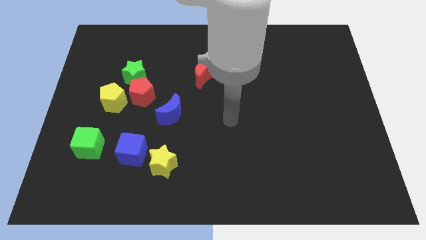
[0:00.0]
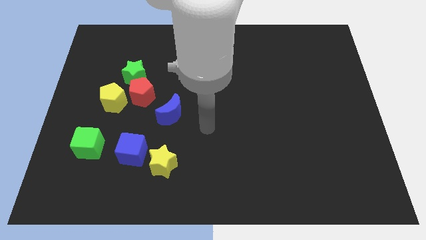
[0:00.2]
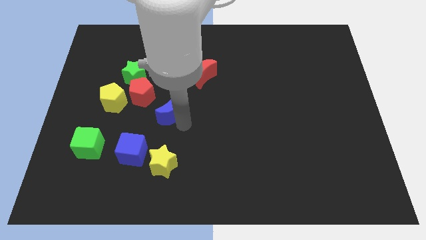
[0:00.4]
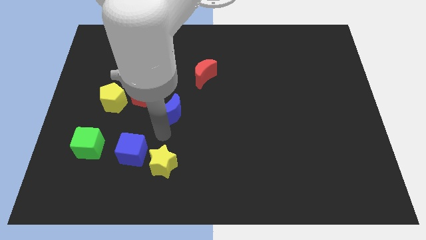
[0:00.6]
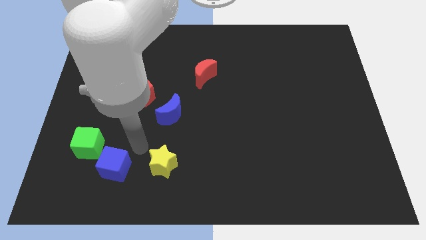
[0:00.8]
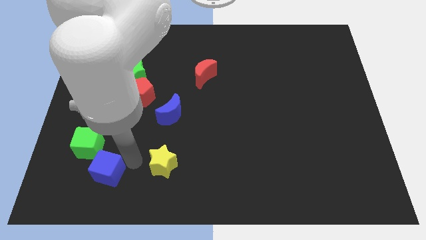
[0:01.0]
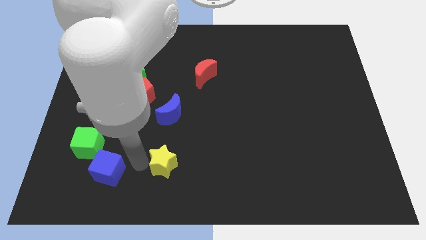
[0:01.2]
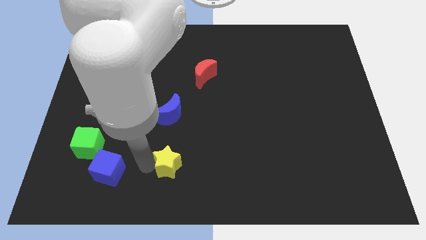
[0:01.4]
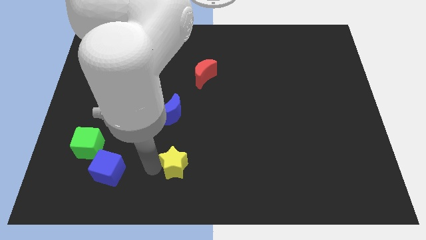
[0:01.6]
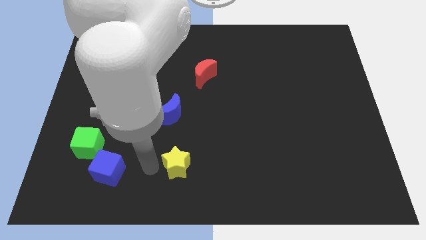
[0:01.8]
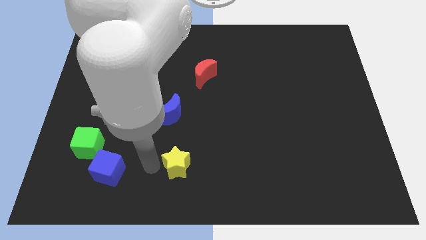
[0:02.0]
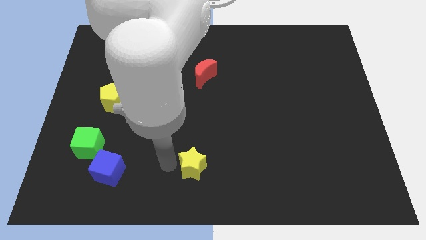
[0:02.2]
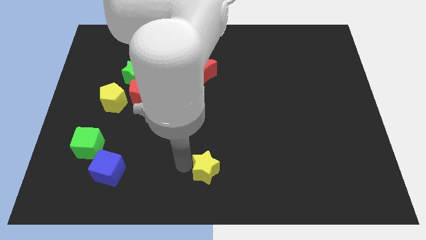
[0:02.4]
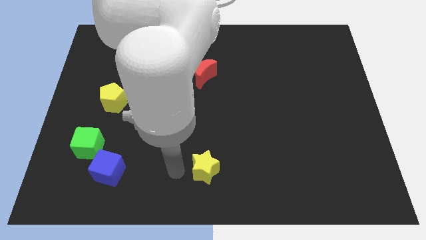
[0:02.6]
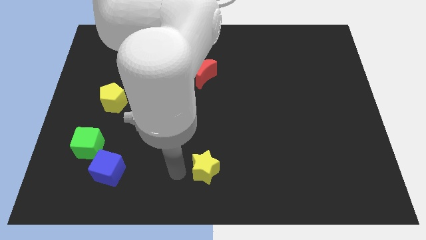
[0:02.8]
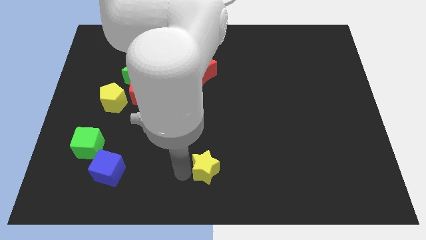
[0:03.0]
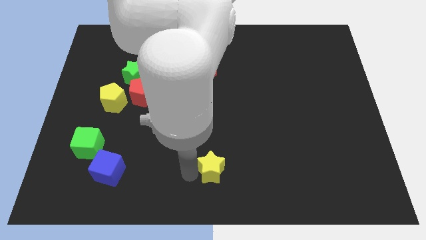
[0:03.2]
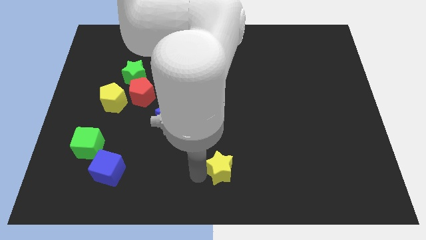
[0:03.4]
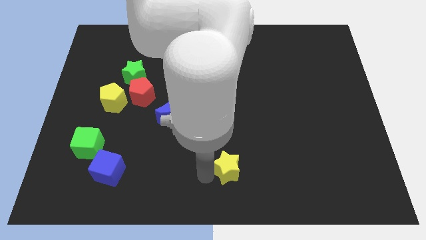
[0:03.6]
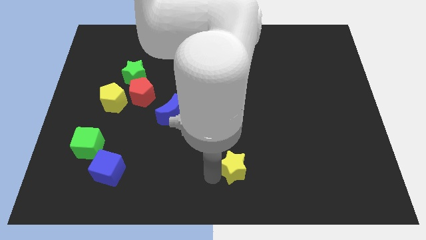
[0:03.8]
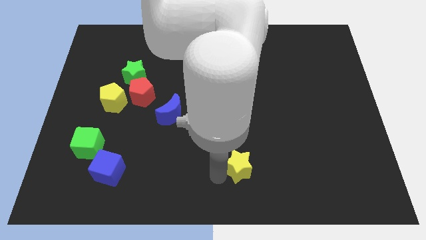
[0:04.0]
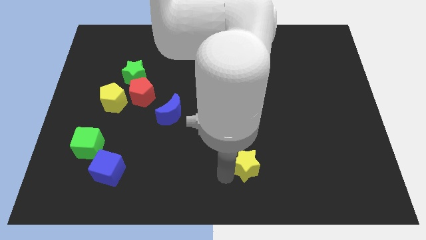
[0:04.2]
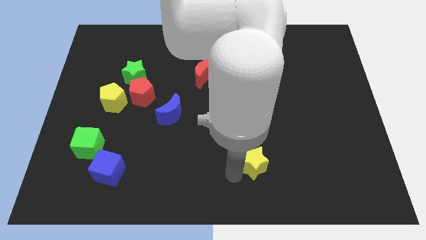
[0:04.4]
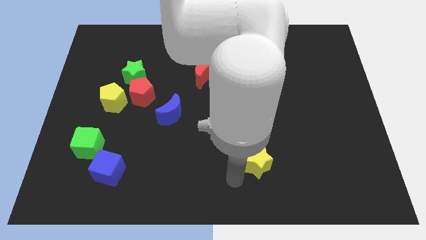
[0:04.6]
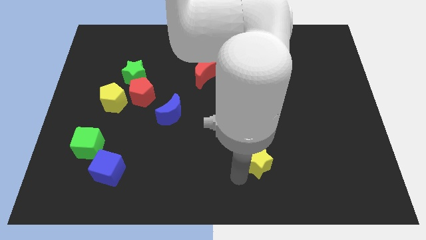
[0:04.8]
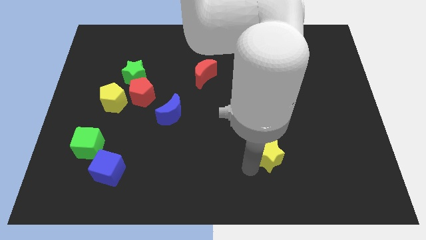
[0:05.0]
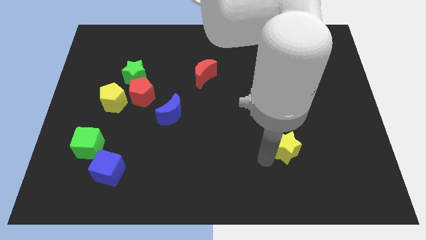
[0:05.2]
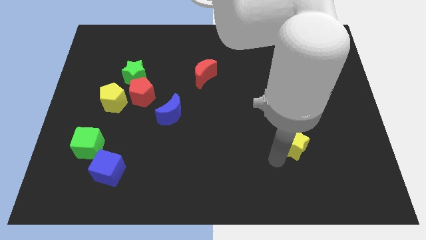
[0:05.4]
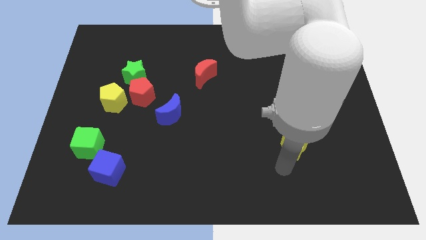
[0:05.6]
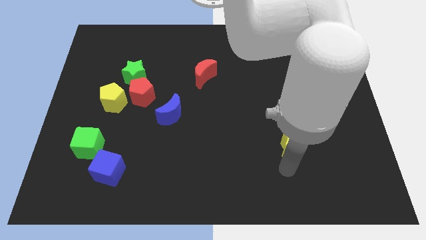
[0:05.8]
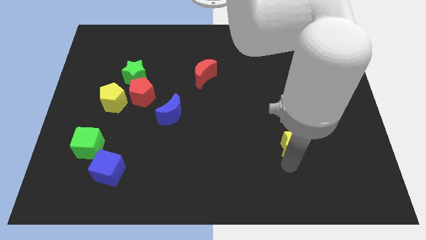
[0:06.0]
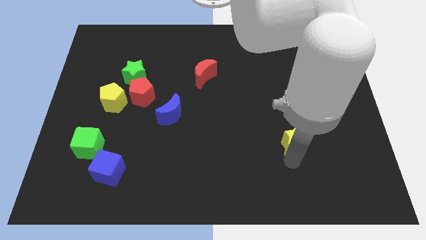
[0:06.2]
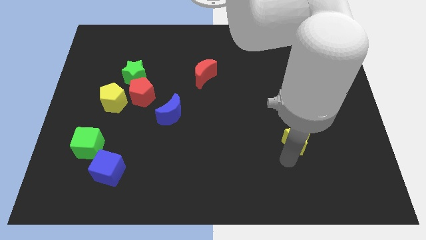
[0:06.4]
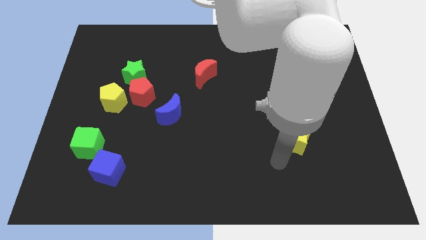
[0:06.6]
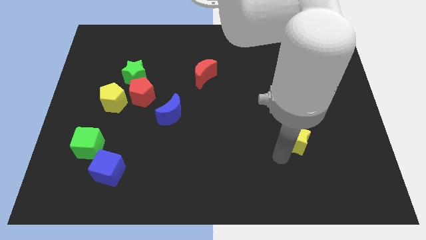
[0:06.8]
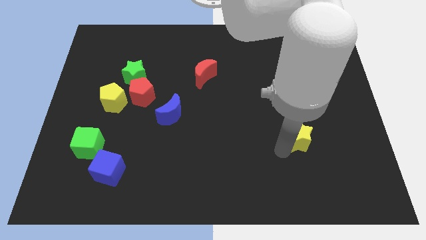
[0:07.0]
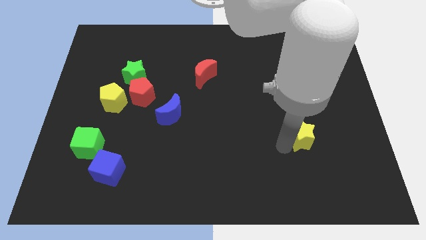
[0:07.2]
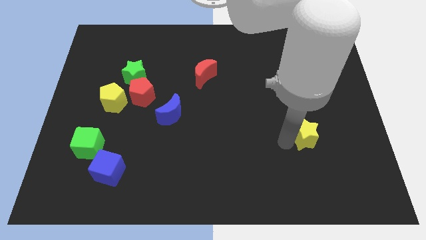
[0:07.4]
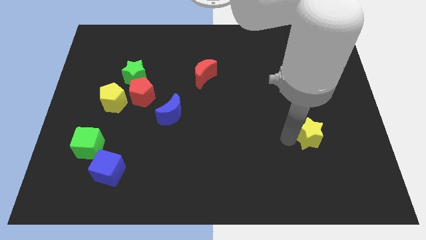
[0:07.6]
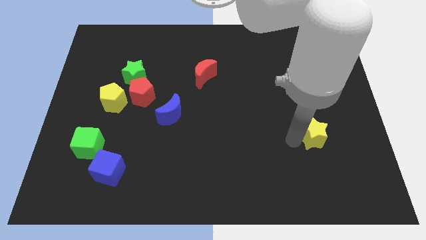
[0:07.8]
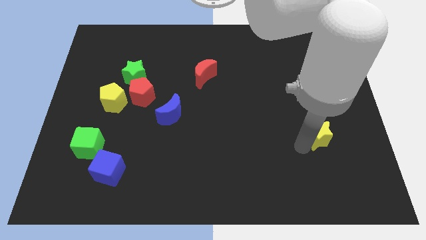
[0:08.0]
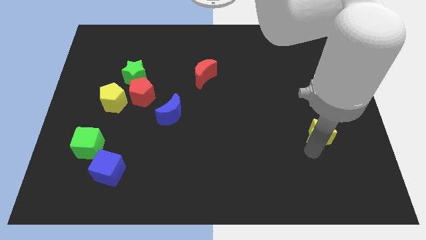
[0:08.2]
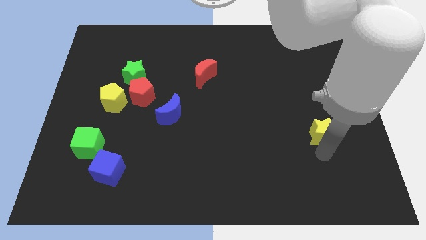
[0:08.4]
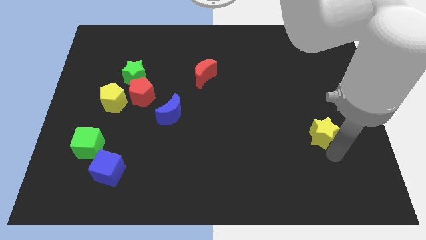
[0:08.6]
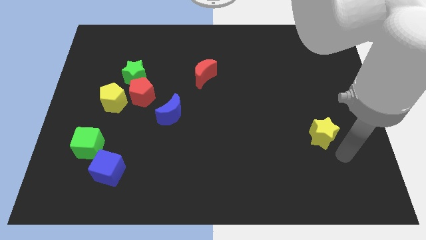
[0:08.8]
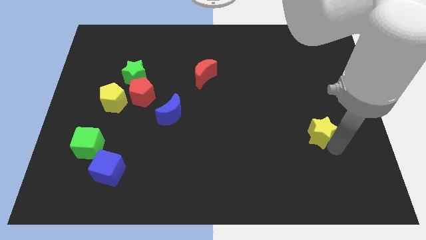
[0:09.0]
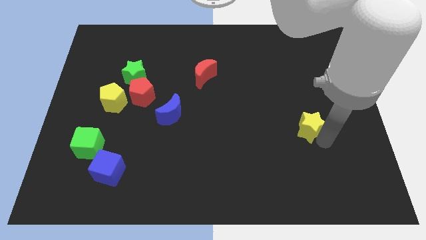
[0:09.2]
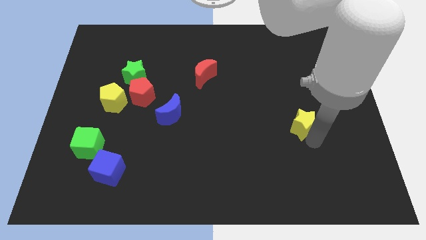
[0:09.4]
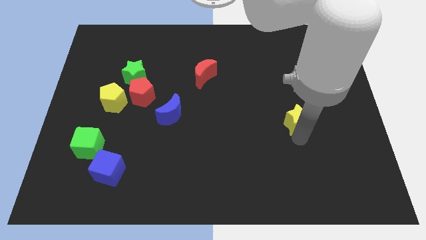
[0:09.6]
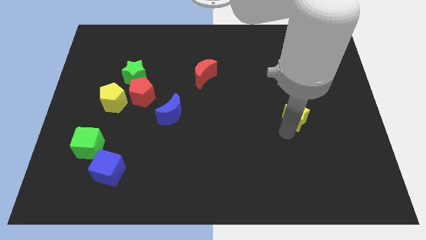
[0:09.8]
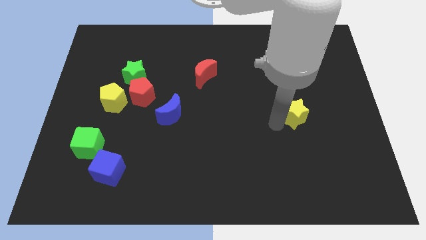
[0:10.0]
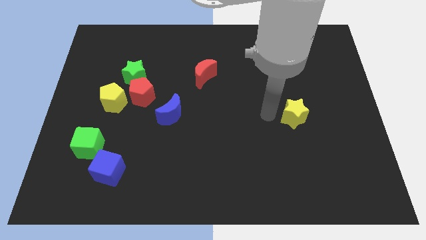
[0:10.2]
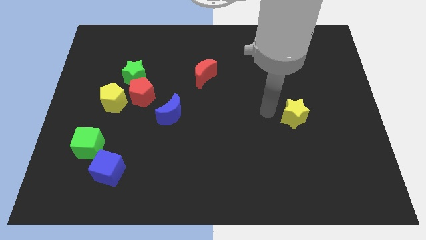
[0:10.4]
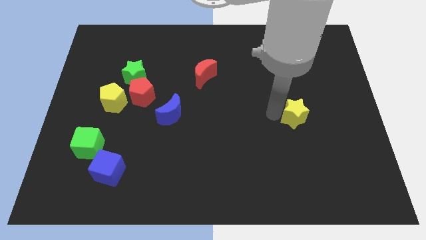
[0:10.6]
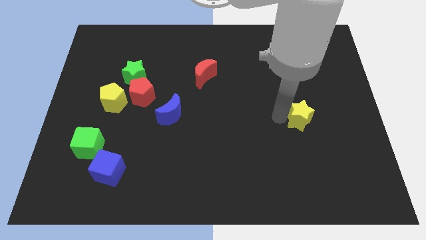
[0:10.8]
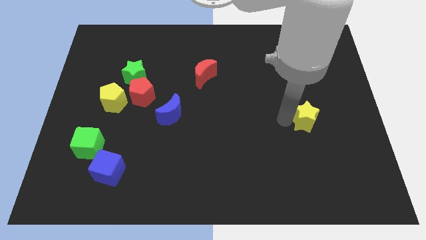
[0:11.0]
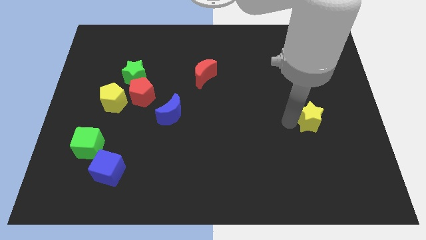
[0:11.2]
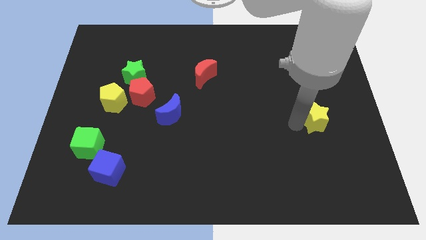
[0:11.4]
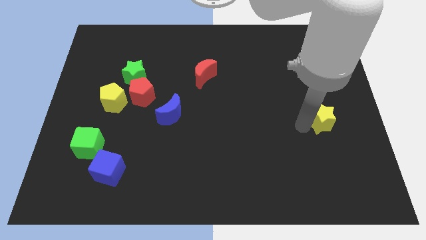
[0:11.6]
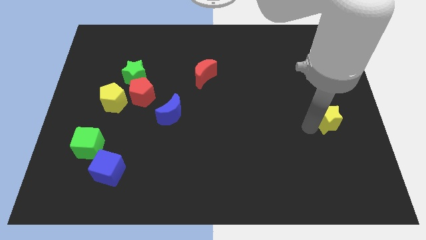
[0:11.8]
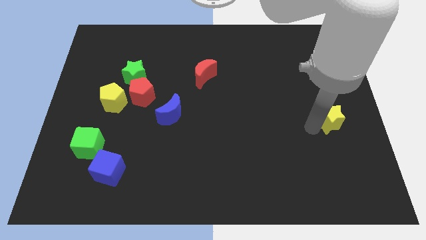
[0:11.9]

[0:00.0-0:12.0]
slide the yellow star to the right side

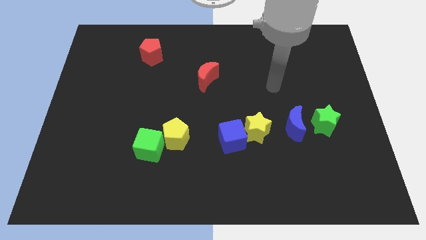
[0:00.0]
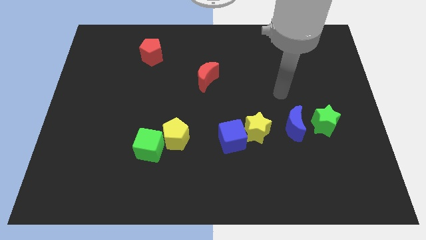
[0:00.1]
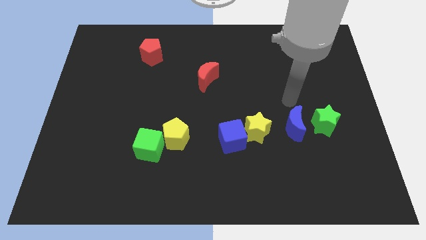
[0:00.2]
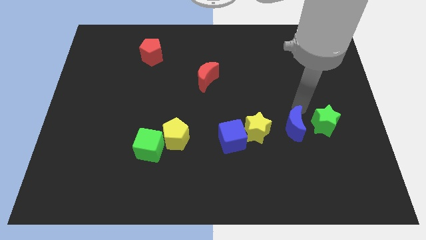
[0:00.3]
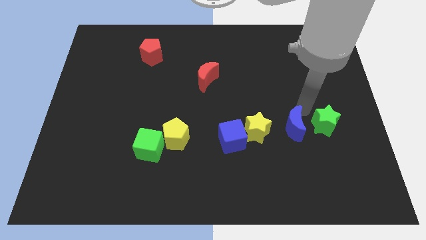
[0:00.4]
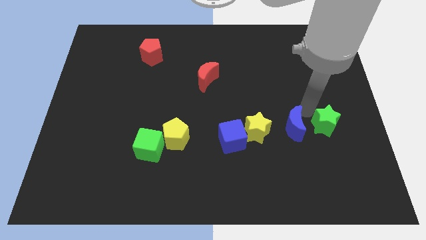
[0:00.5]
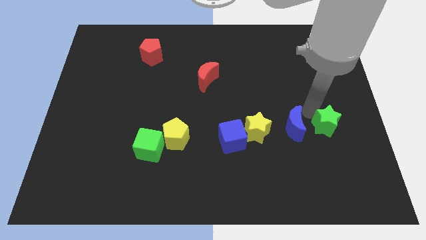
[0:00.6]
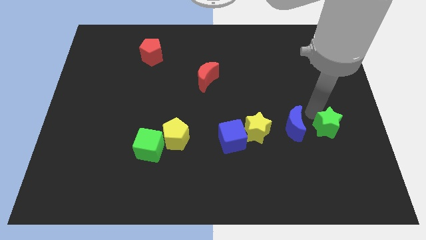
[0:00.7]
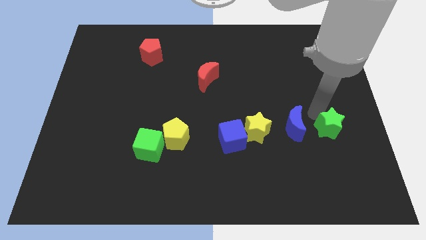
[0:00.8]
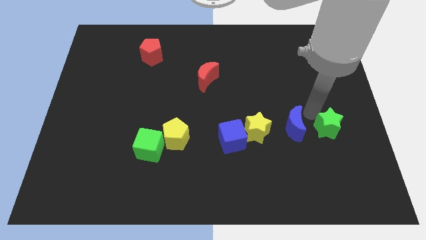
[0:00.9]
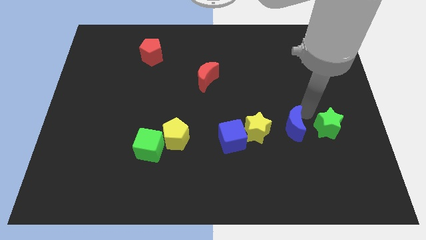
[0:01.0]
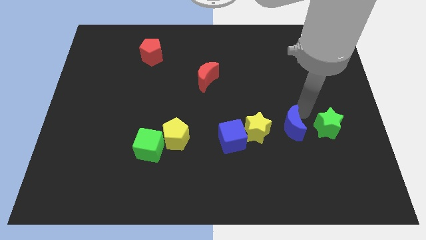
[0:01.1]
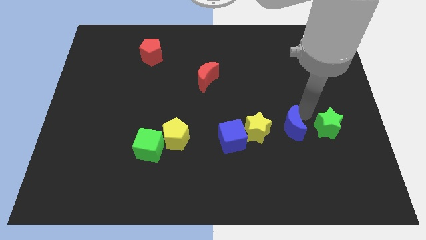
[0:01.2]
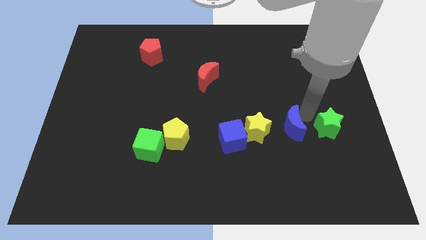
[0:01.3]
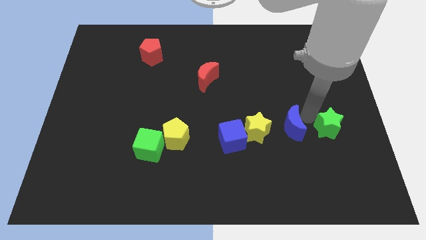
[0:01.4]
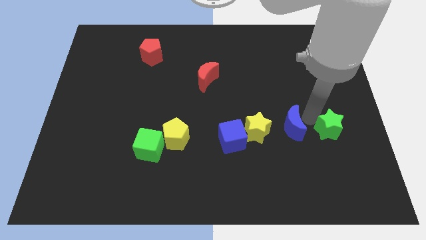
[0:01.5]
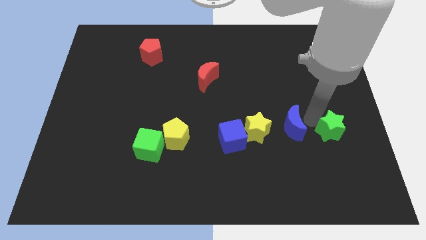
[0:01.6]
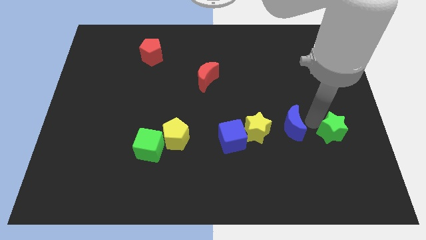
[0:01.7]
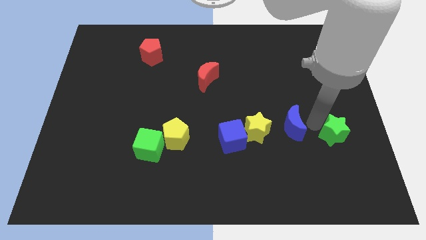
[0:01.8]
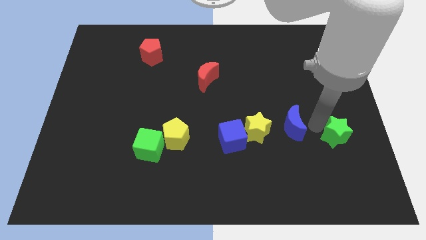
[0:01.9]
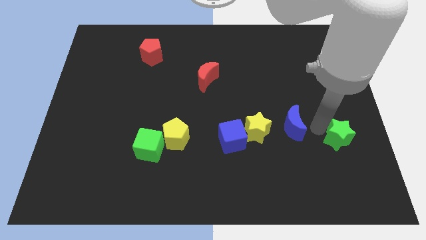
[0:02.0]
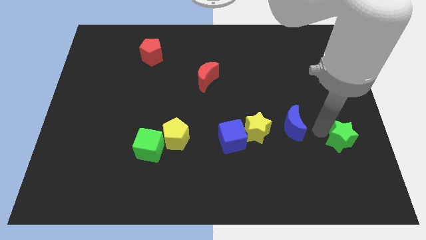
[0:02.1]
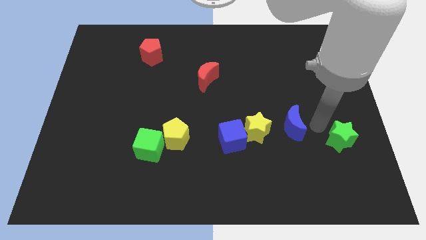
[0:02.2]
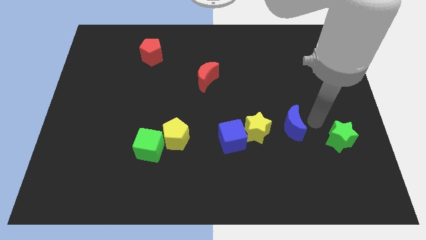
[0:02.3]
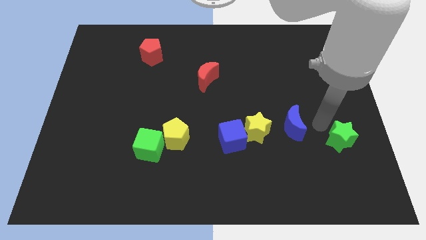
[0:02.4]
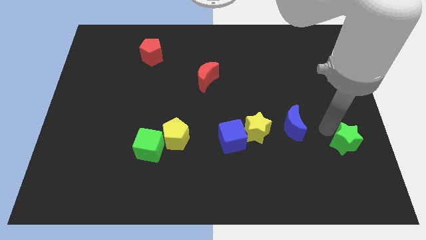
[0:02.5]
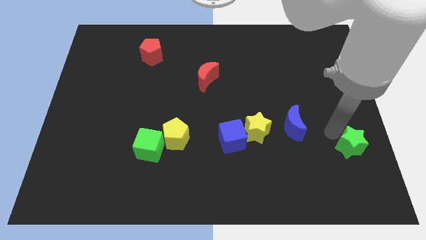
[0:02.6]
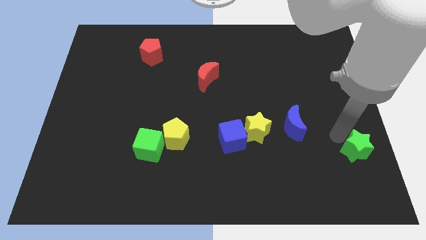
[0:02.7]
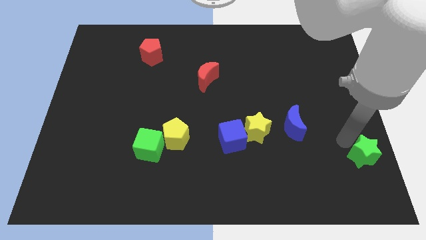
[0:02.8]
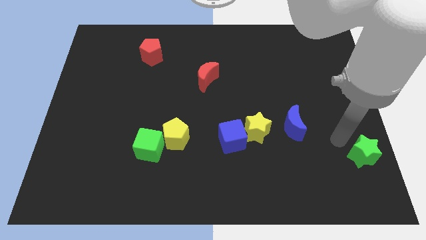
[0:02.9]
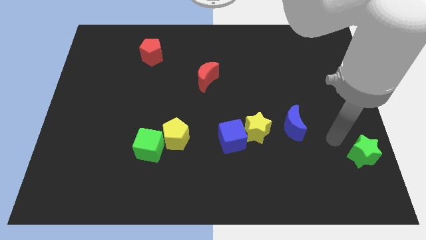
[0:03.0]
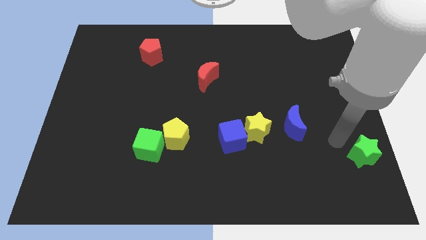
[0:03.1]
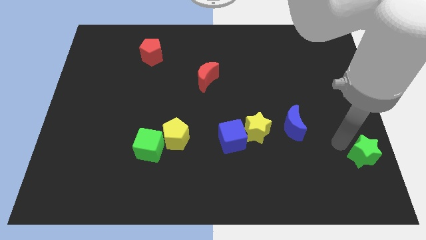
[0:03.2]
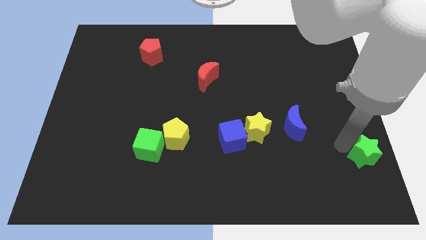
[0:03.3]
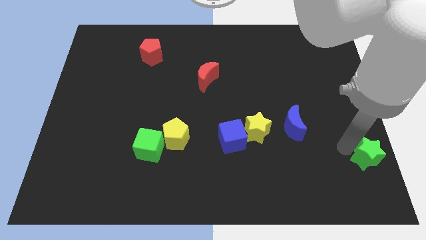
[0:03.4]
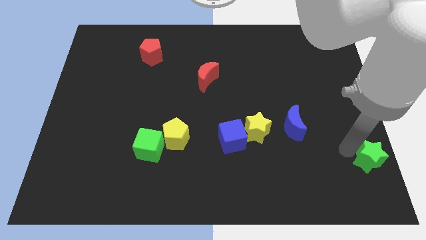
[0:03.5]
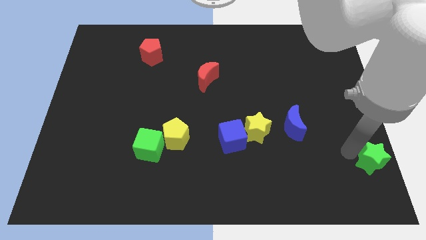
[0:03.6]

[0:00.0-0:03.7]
slide the green star to the bottom right of the board
